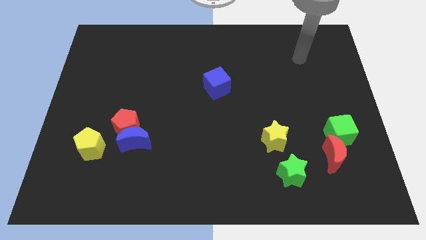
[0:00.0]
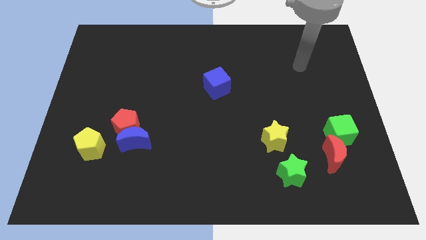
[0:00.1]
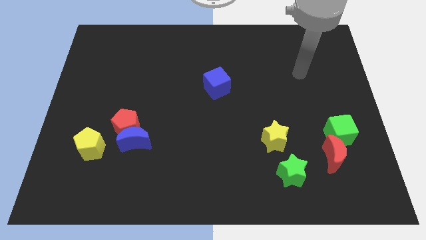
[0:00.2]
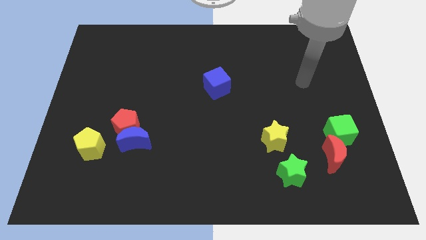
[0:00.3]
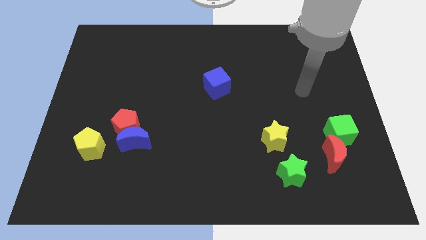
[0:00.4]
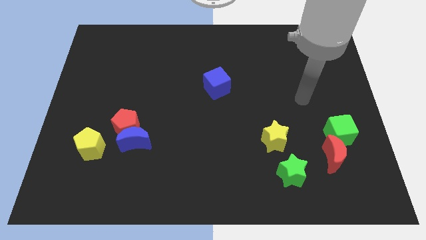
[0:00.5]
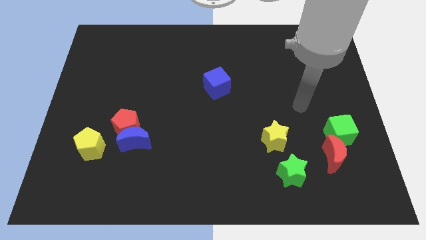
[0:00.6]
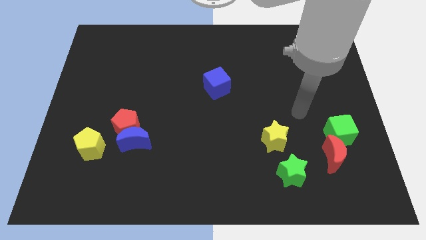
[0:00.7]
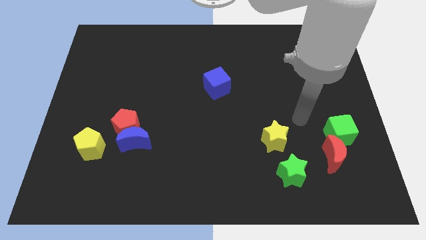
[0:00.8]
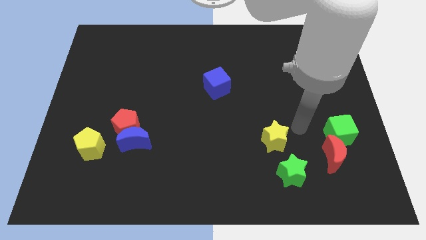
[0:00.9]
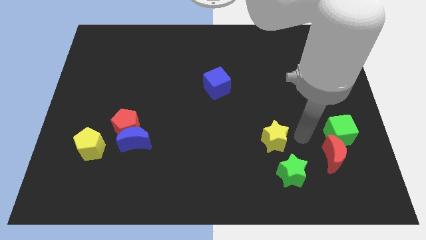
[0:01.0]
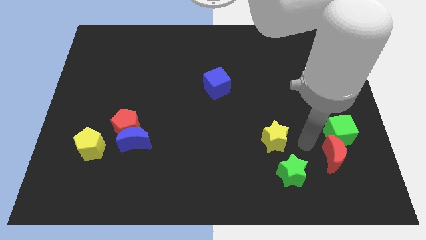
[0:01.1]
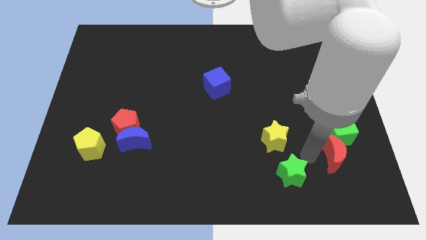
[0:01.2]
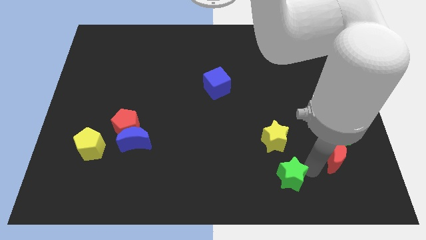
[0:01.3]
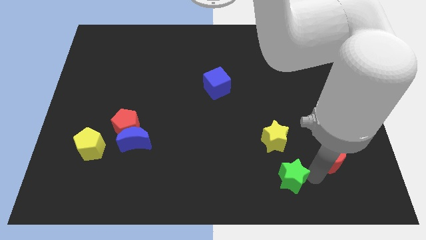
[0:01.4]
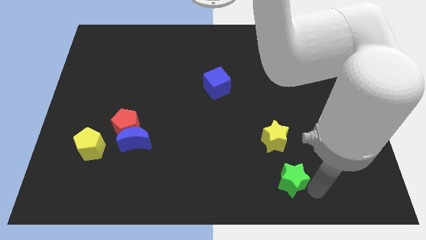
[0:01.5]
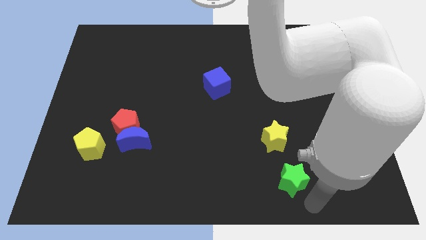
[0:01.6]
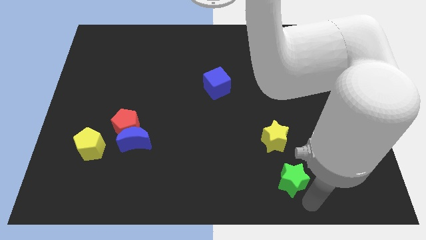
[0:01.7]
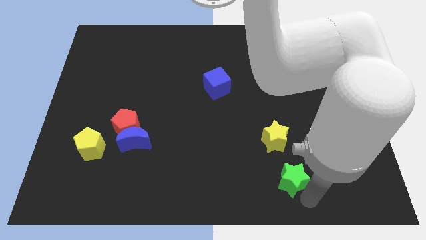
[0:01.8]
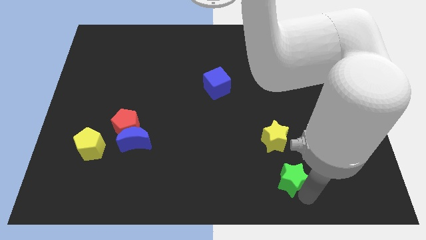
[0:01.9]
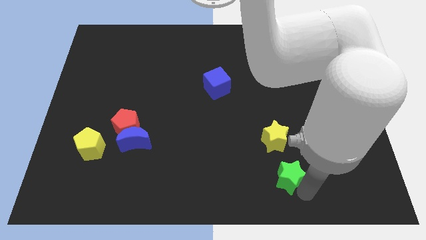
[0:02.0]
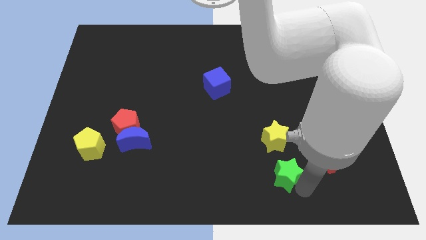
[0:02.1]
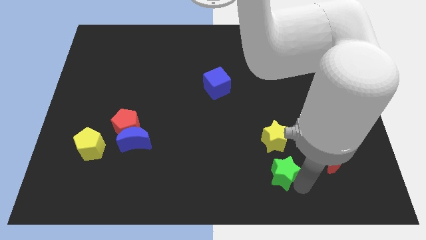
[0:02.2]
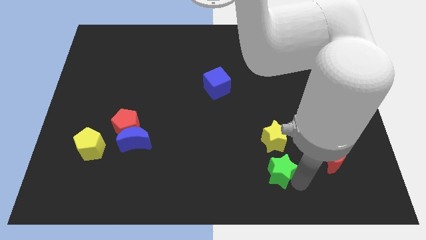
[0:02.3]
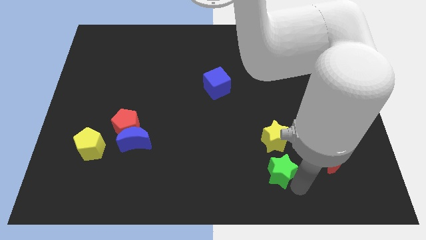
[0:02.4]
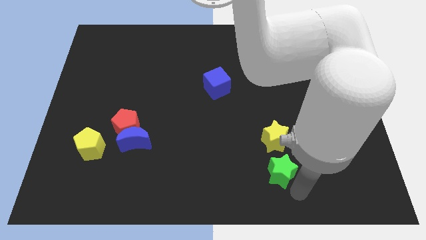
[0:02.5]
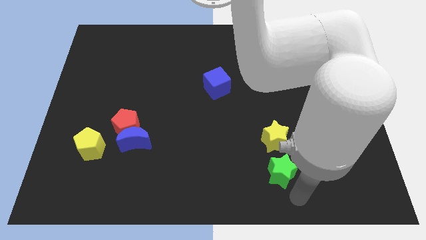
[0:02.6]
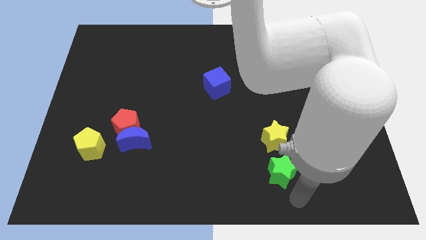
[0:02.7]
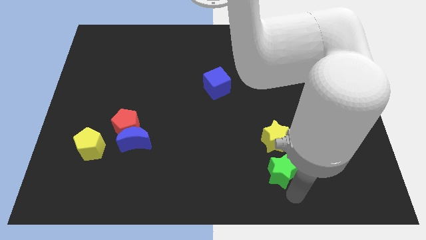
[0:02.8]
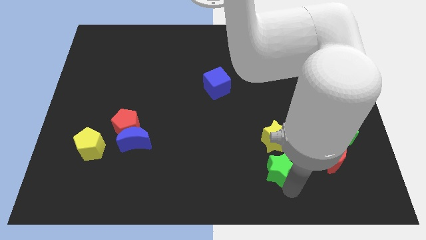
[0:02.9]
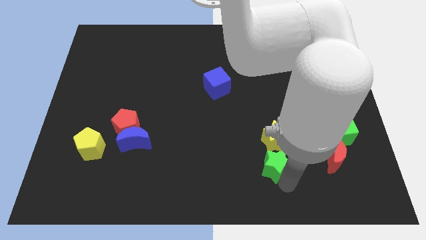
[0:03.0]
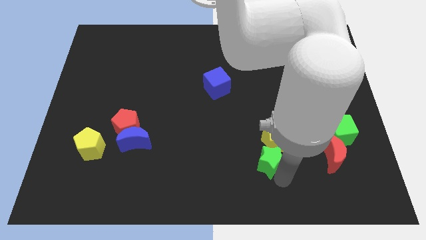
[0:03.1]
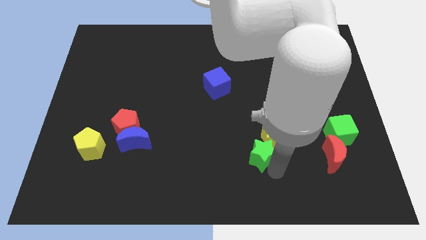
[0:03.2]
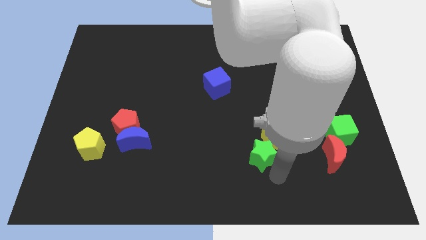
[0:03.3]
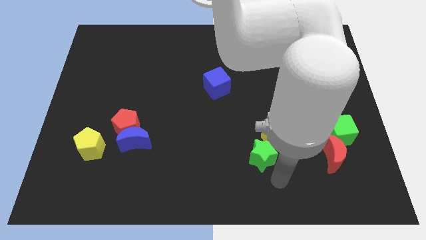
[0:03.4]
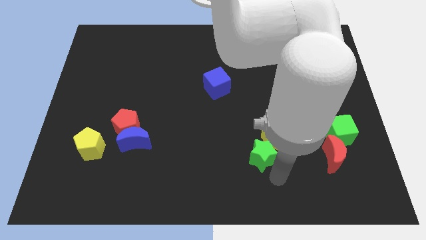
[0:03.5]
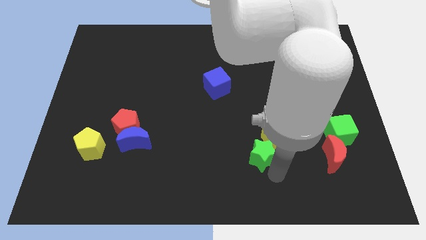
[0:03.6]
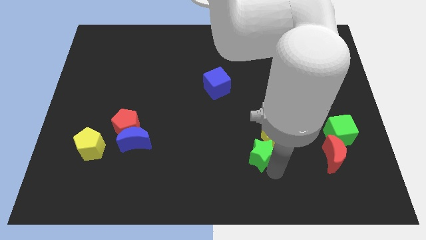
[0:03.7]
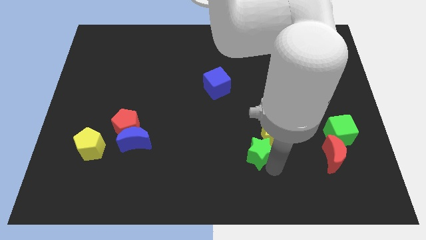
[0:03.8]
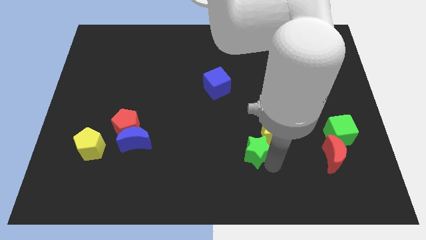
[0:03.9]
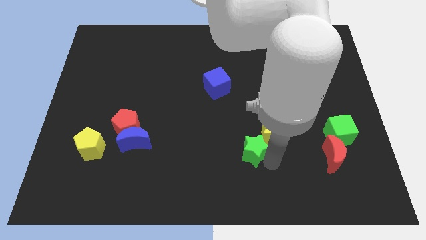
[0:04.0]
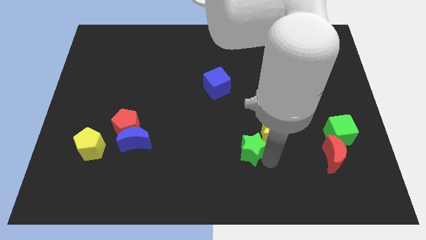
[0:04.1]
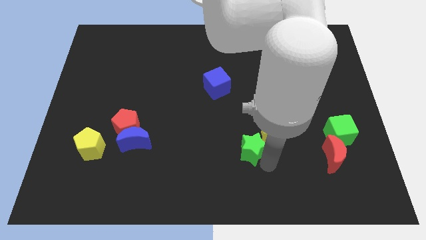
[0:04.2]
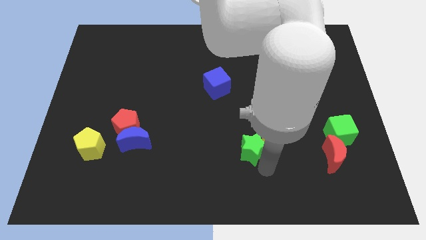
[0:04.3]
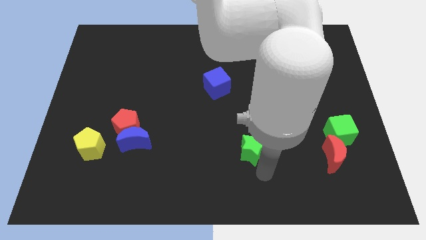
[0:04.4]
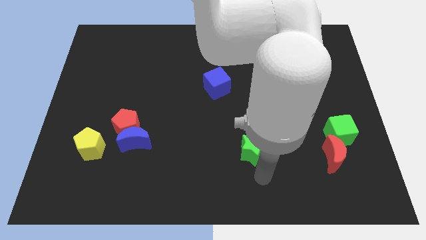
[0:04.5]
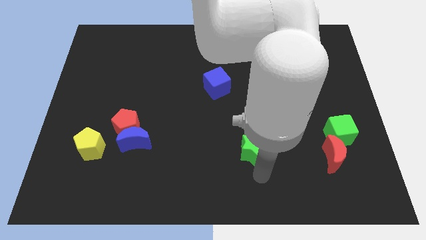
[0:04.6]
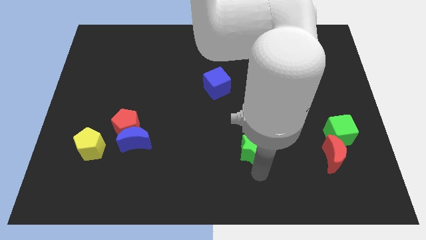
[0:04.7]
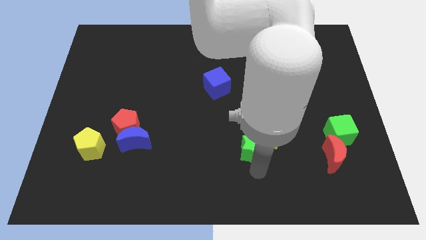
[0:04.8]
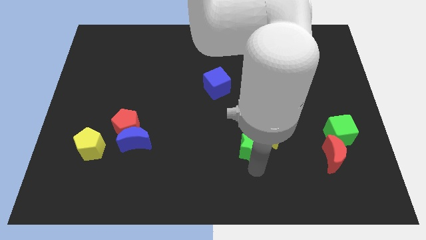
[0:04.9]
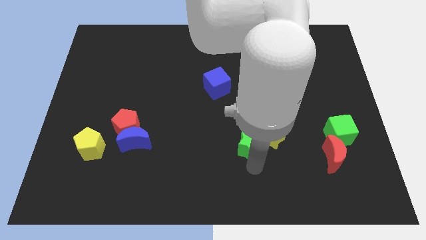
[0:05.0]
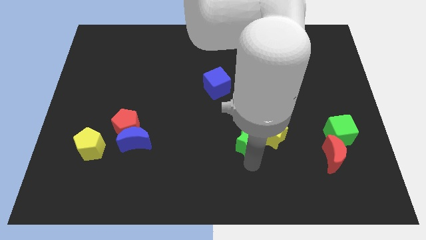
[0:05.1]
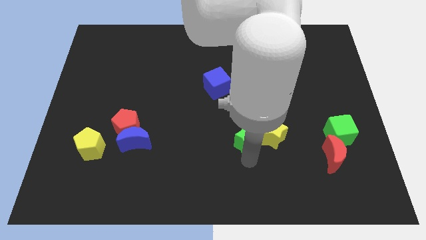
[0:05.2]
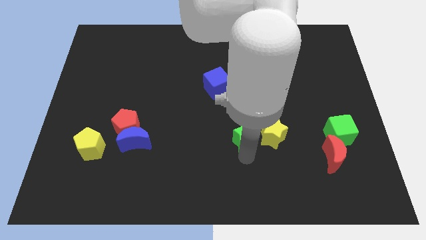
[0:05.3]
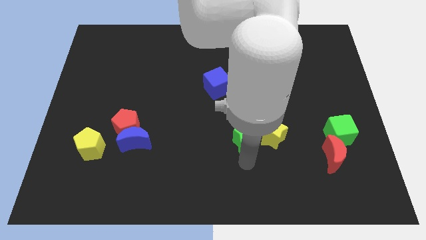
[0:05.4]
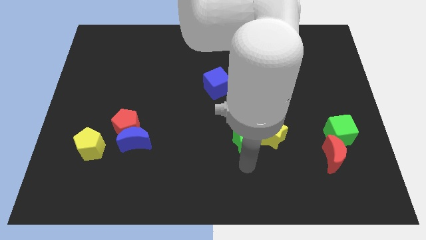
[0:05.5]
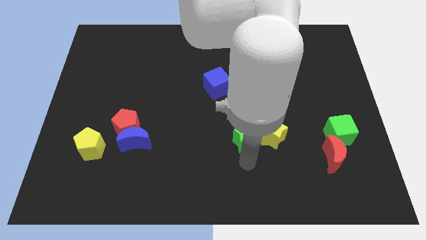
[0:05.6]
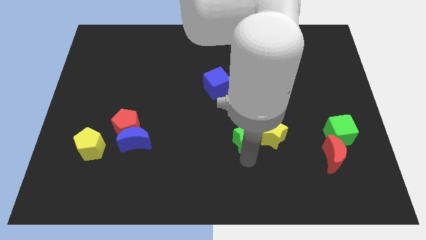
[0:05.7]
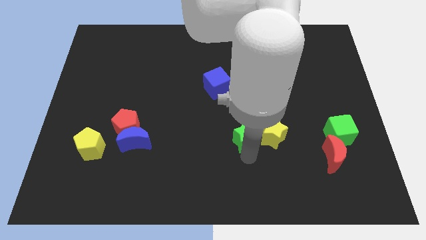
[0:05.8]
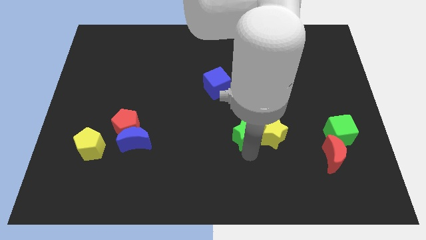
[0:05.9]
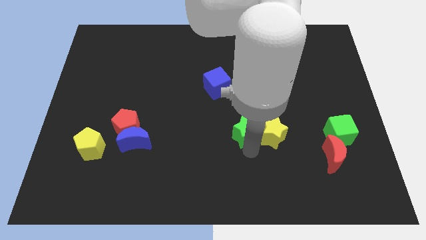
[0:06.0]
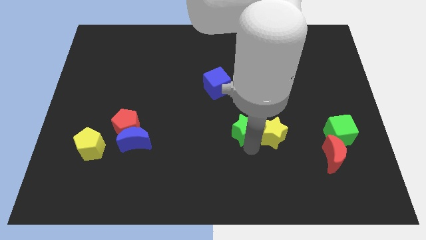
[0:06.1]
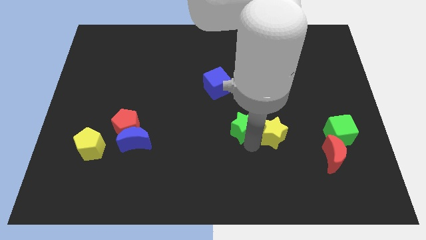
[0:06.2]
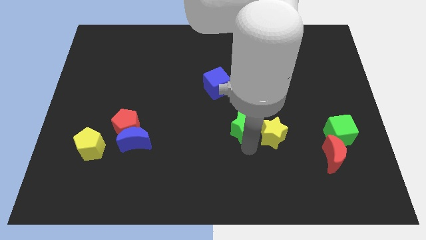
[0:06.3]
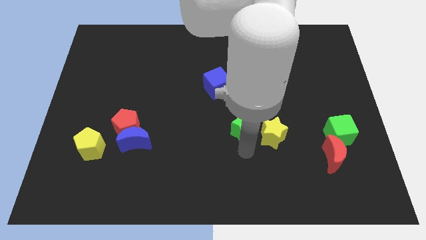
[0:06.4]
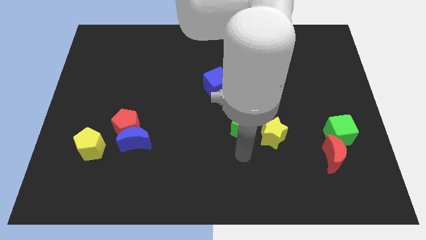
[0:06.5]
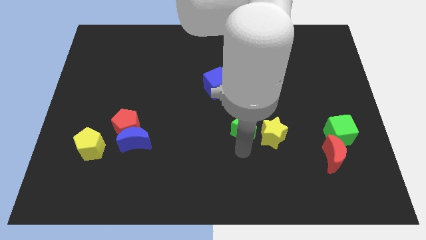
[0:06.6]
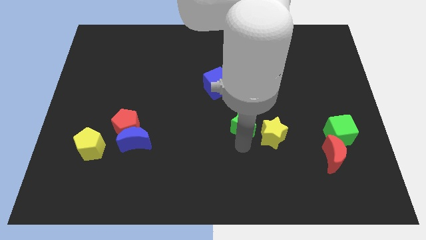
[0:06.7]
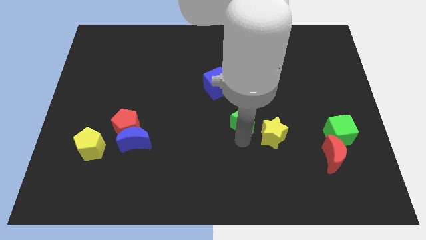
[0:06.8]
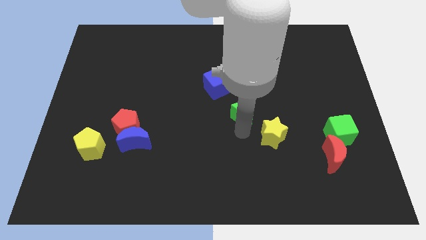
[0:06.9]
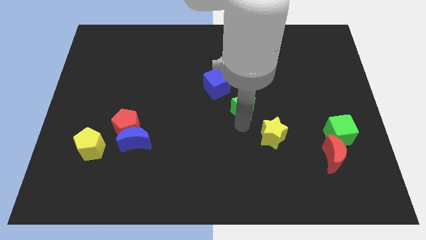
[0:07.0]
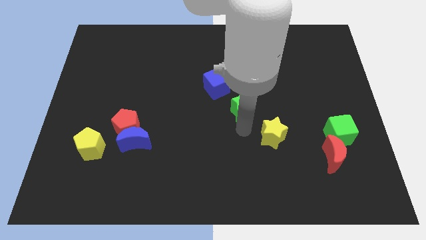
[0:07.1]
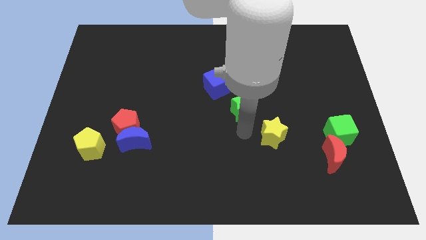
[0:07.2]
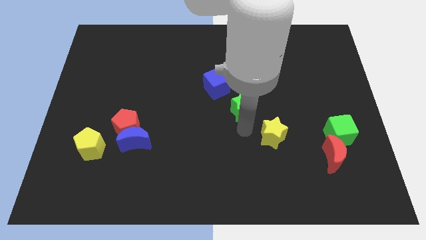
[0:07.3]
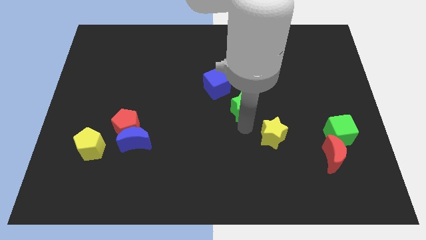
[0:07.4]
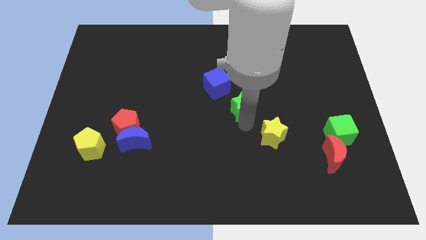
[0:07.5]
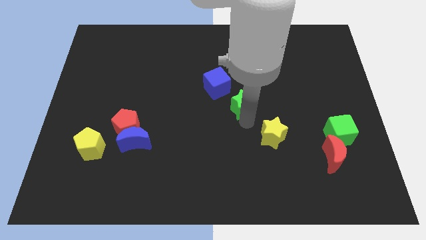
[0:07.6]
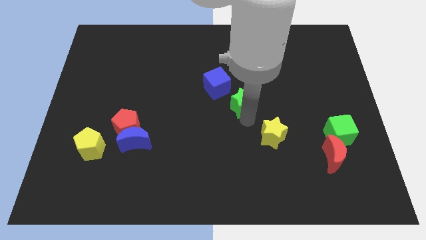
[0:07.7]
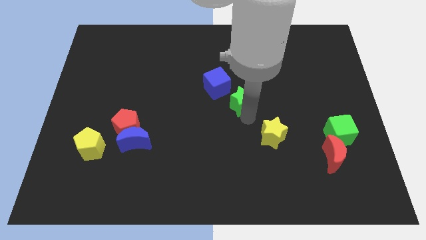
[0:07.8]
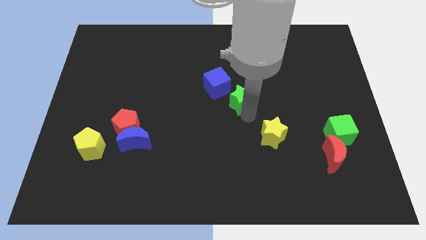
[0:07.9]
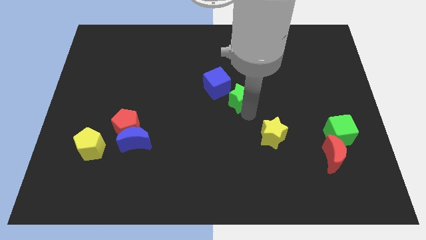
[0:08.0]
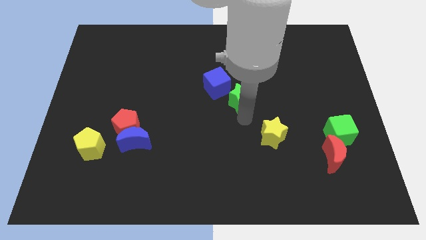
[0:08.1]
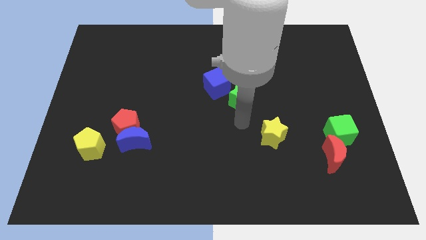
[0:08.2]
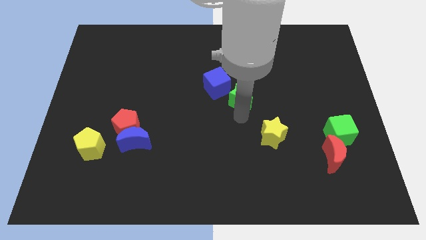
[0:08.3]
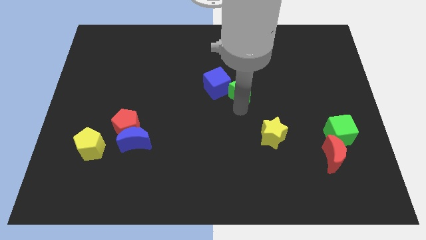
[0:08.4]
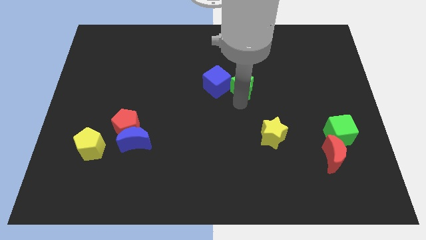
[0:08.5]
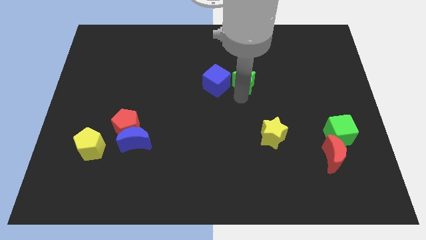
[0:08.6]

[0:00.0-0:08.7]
slide the green star diagonally up and to the right of the blue cube
